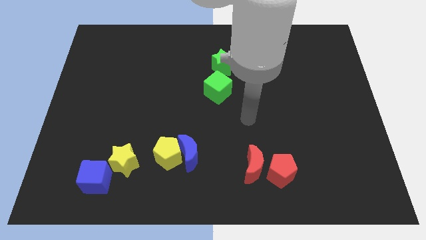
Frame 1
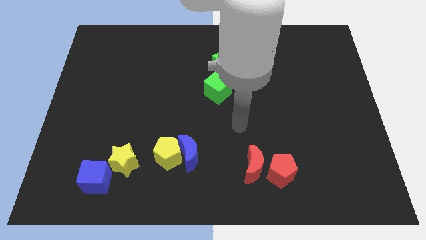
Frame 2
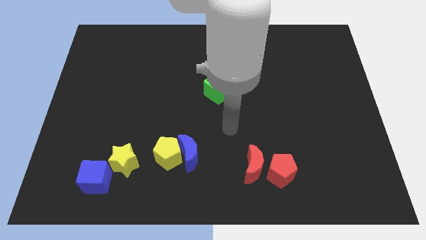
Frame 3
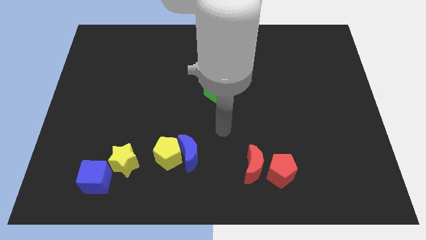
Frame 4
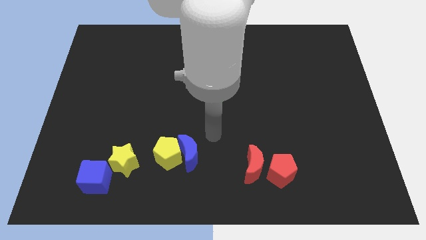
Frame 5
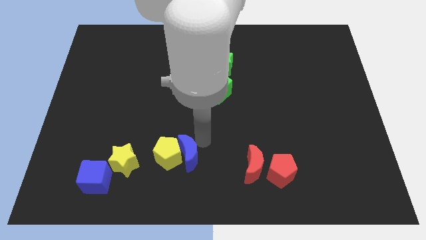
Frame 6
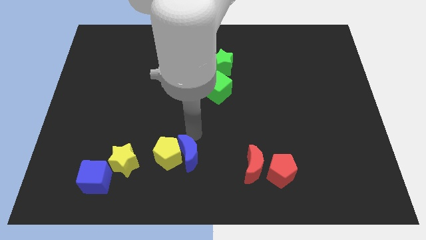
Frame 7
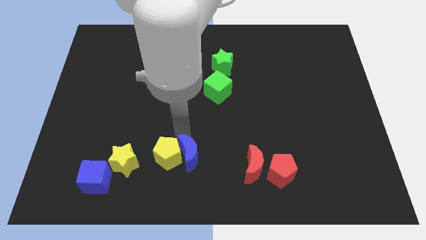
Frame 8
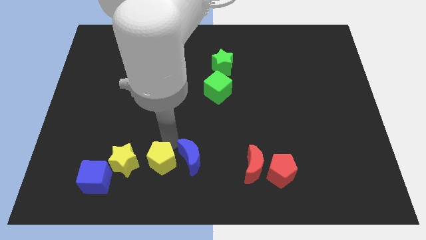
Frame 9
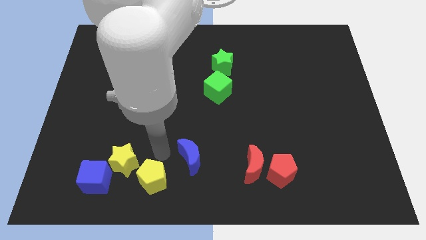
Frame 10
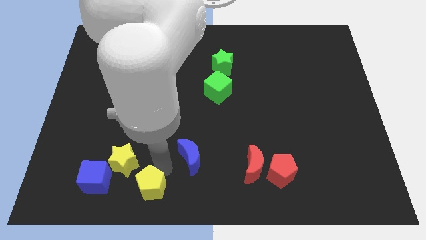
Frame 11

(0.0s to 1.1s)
separate the blue moon from the yellow pentagon

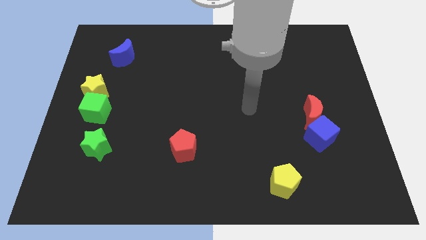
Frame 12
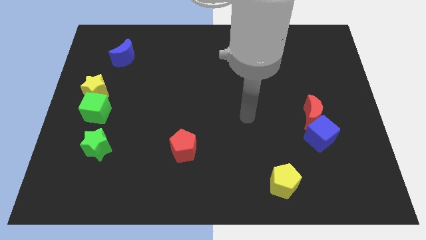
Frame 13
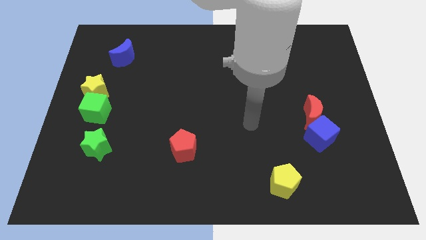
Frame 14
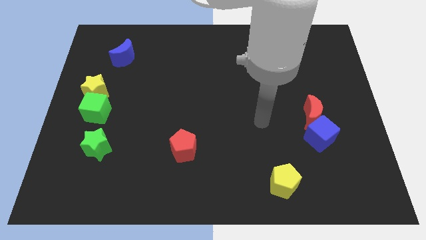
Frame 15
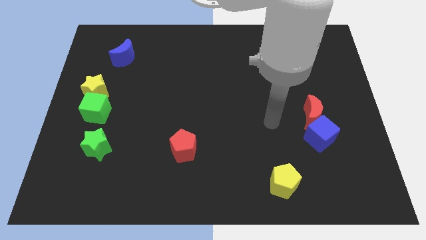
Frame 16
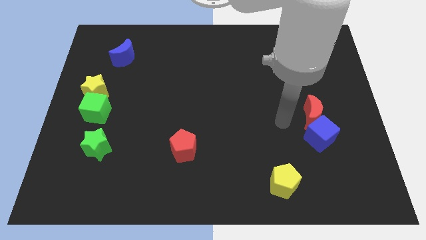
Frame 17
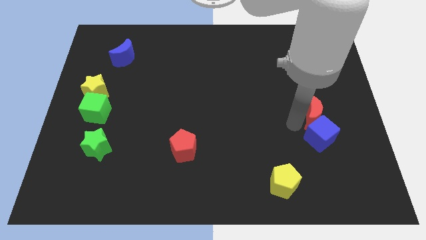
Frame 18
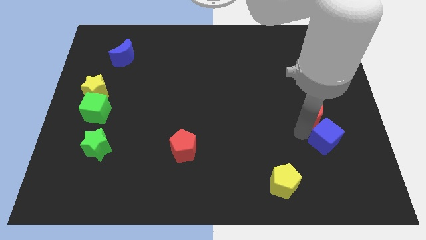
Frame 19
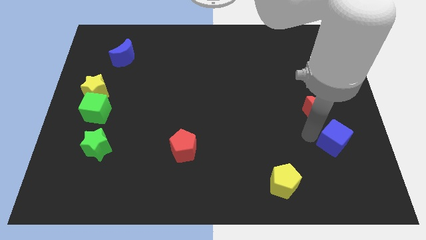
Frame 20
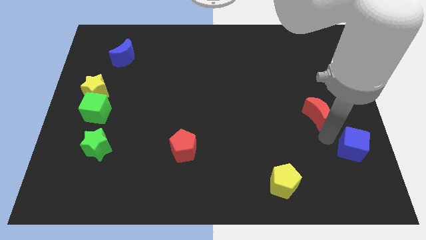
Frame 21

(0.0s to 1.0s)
move the red moon away from the blue cube

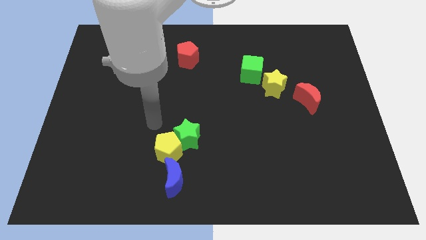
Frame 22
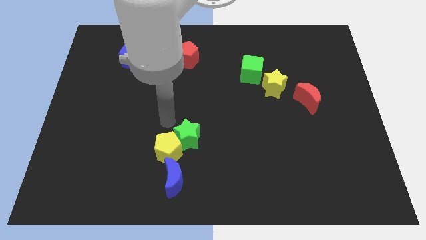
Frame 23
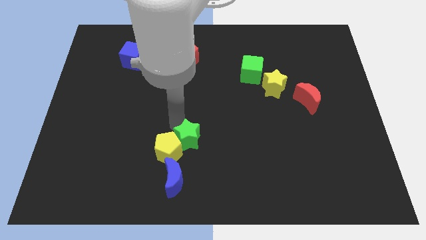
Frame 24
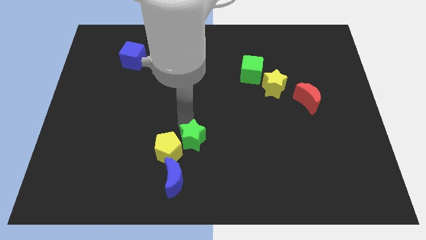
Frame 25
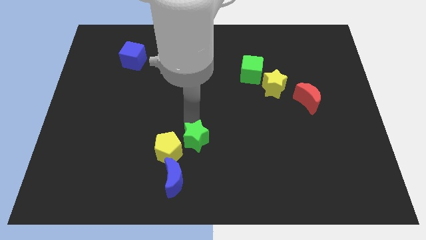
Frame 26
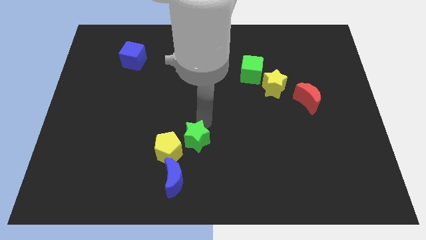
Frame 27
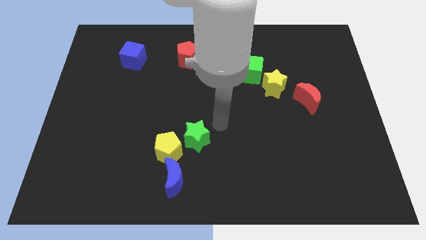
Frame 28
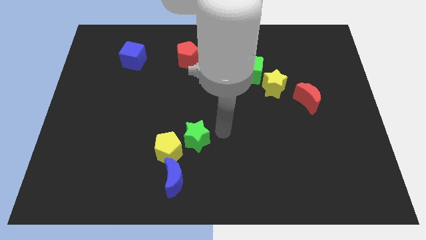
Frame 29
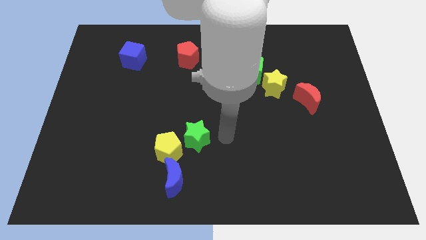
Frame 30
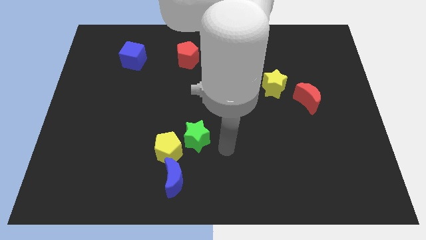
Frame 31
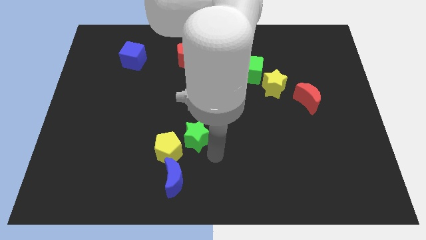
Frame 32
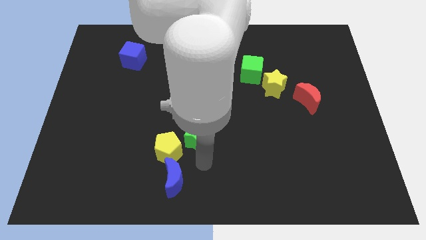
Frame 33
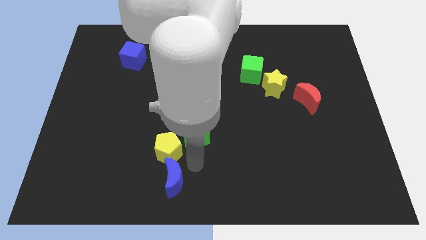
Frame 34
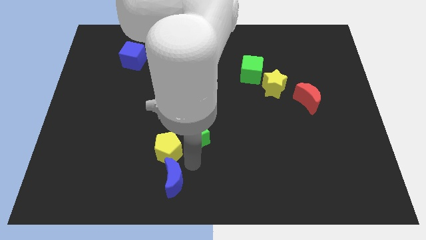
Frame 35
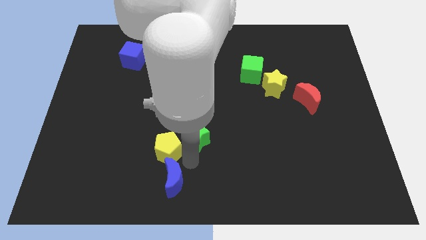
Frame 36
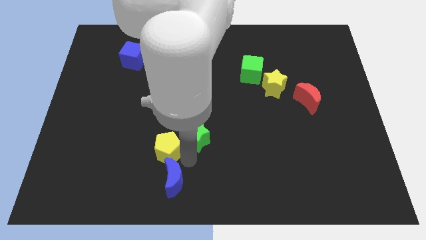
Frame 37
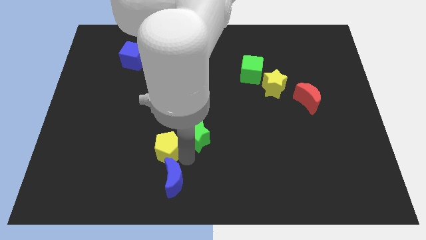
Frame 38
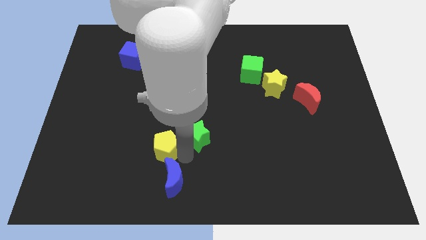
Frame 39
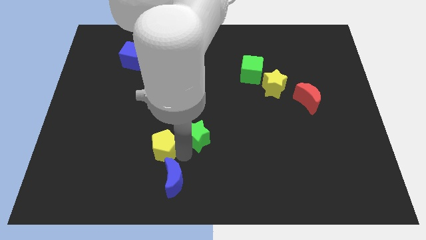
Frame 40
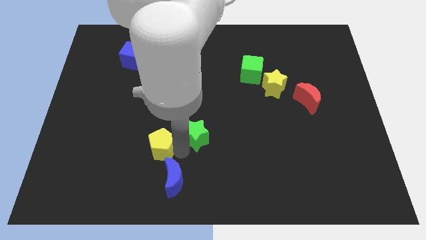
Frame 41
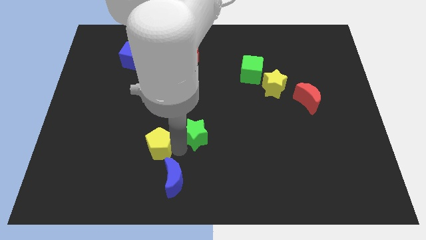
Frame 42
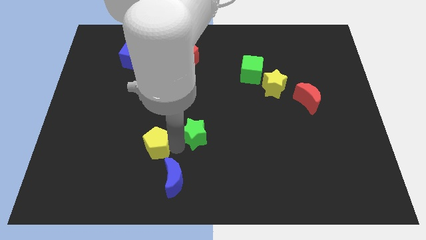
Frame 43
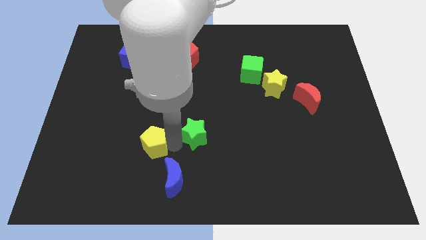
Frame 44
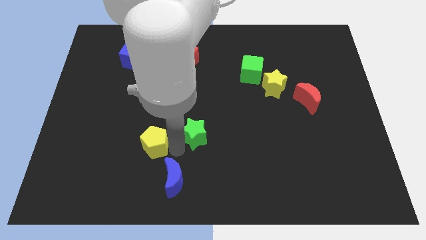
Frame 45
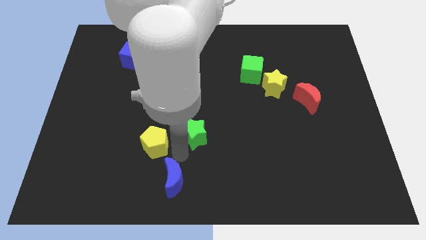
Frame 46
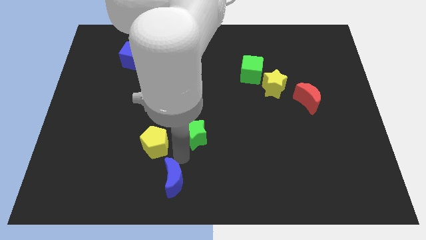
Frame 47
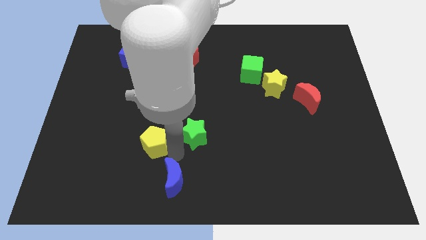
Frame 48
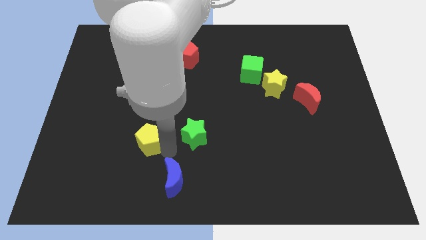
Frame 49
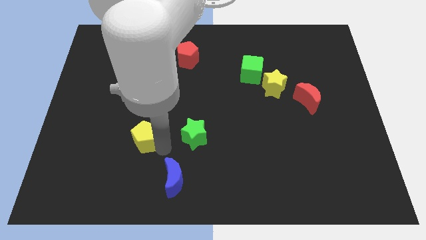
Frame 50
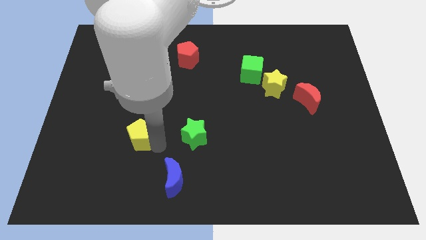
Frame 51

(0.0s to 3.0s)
move the yellow pentagon away from the green star and blue moon

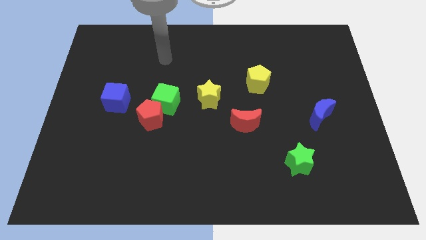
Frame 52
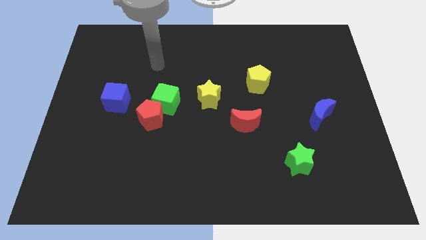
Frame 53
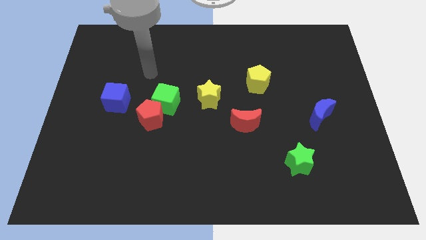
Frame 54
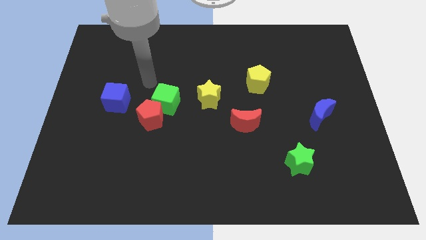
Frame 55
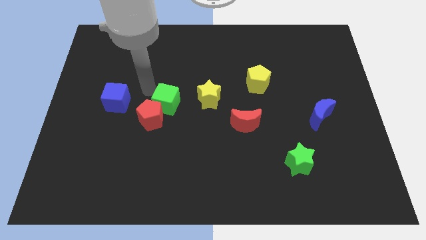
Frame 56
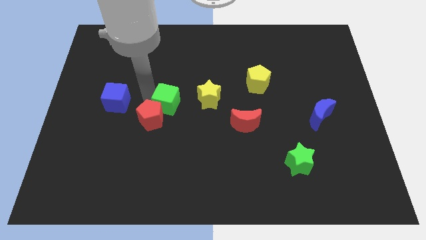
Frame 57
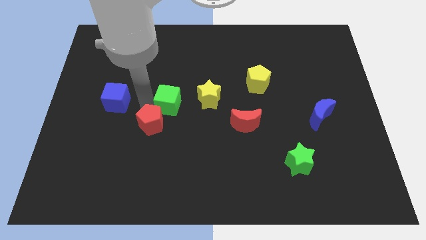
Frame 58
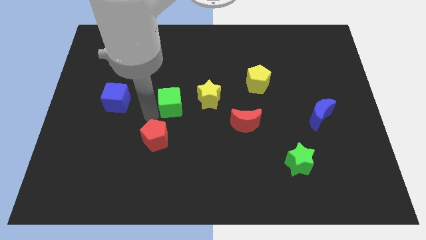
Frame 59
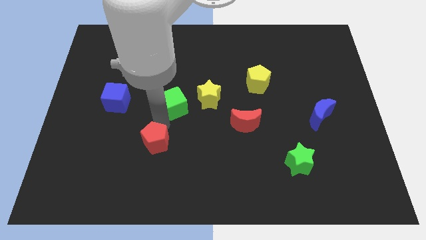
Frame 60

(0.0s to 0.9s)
move the green cube away from the red pentagon

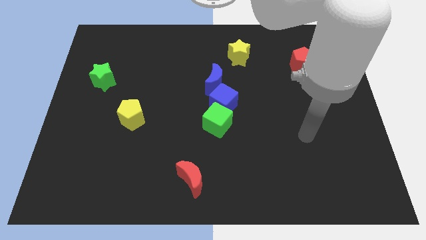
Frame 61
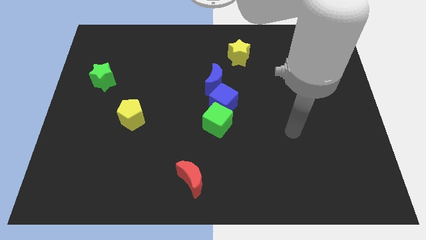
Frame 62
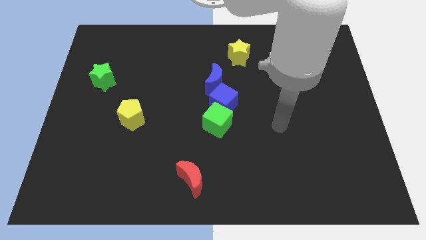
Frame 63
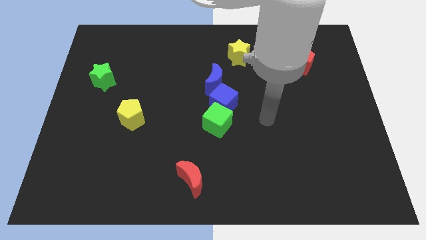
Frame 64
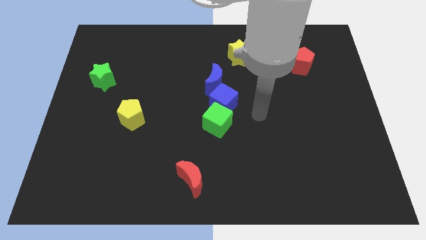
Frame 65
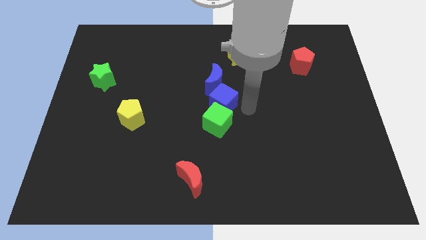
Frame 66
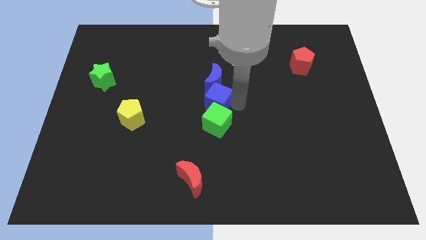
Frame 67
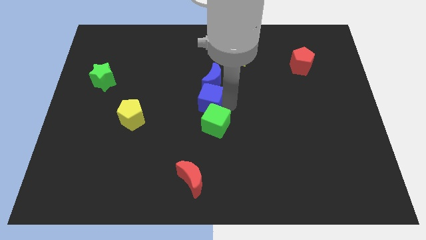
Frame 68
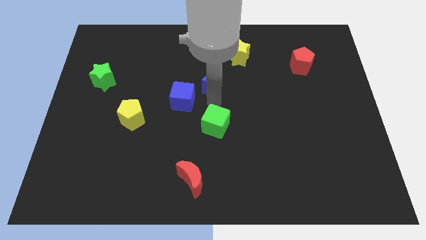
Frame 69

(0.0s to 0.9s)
pull the green cube apart from the blue cube

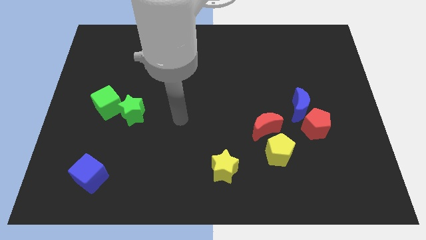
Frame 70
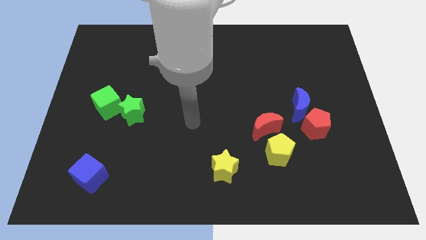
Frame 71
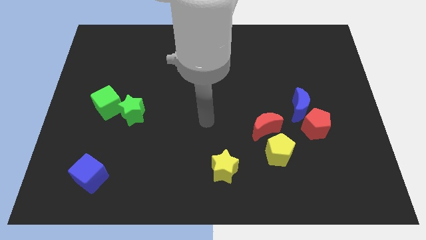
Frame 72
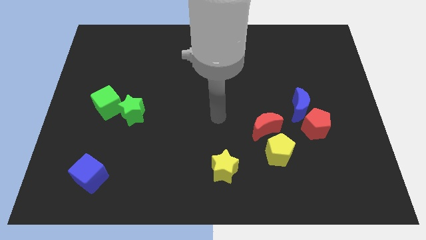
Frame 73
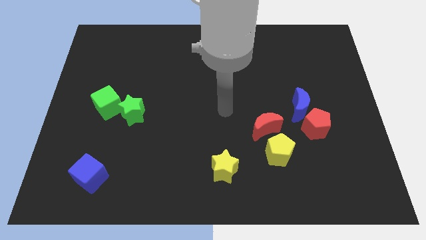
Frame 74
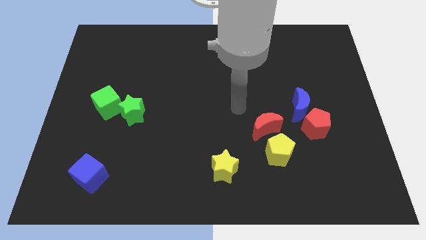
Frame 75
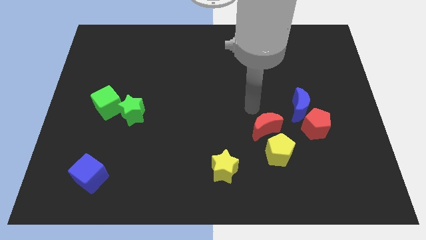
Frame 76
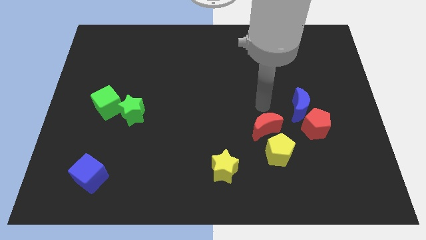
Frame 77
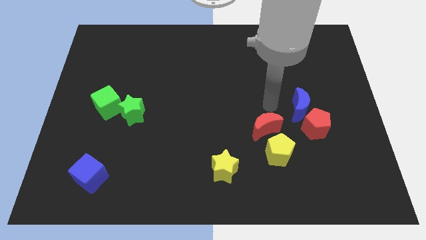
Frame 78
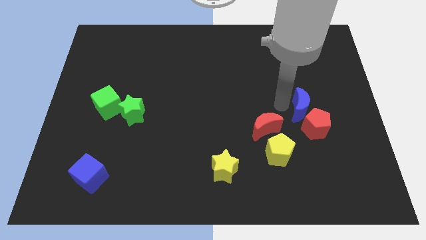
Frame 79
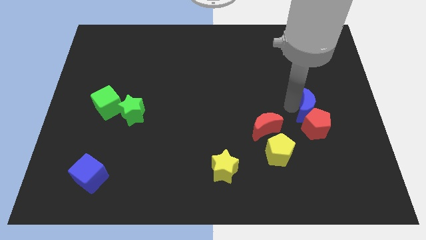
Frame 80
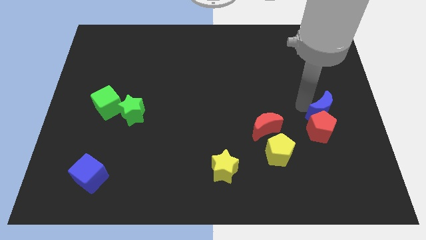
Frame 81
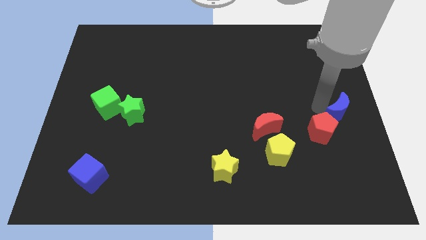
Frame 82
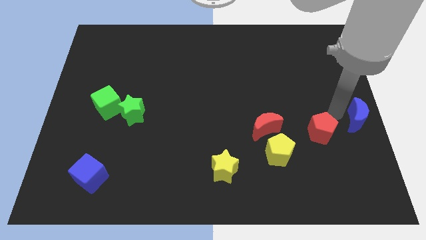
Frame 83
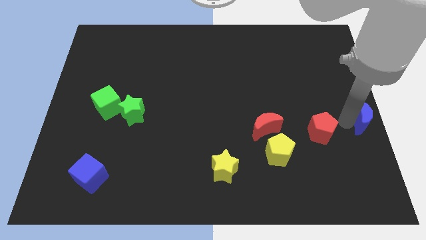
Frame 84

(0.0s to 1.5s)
pull the red pentagon apart from the blue moon

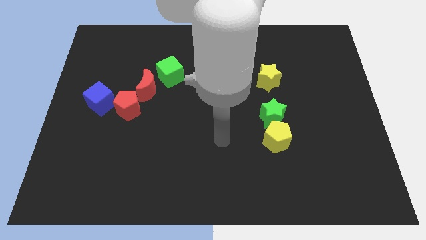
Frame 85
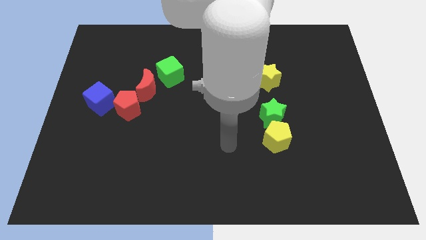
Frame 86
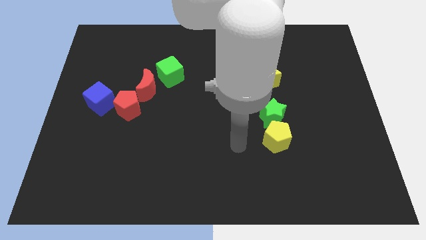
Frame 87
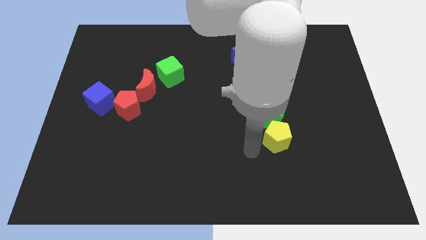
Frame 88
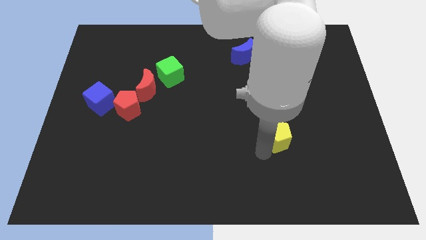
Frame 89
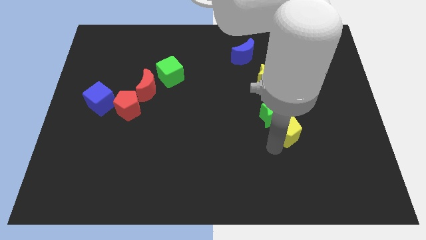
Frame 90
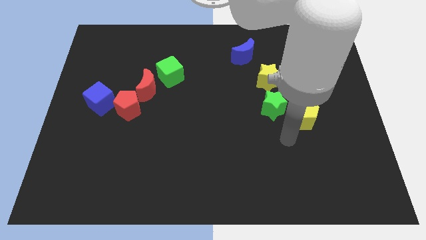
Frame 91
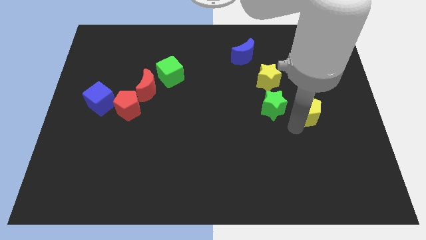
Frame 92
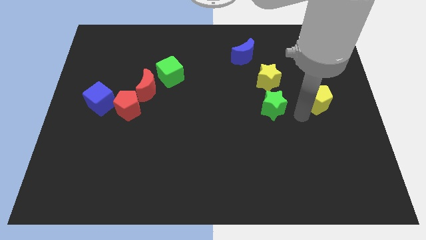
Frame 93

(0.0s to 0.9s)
pull the green star apart from the yellow pentagon

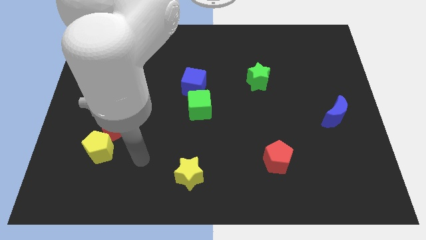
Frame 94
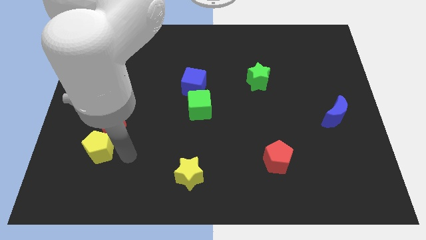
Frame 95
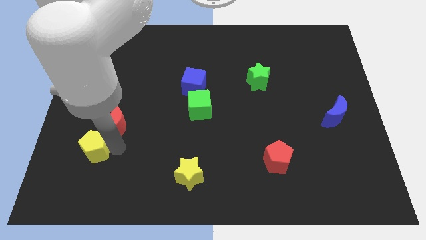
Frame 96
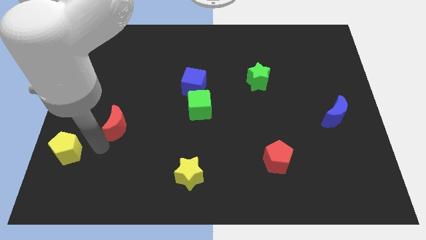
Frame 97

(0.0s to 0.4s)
move the red moon away from the yellow pentagon
